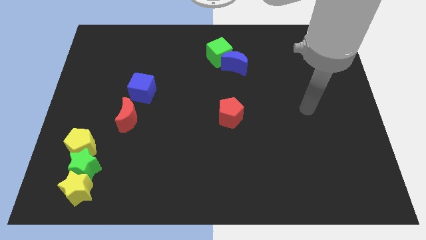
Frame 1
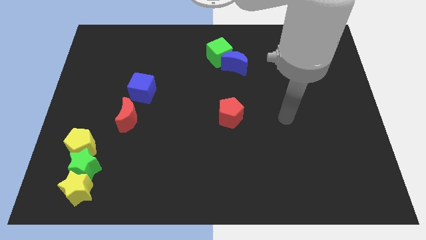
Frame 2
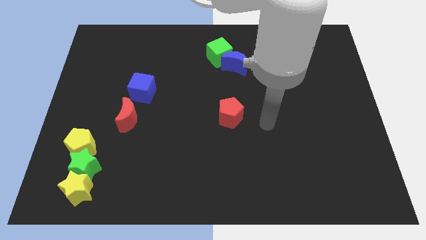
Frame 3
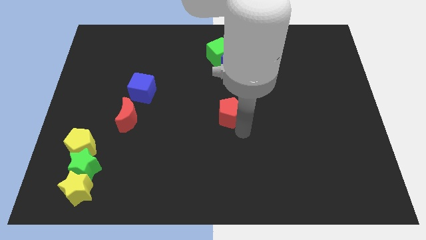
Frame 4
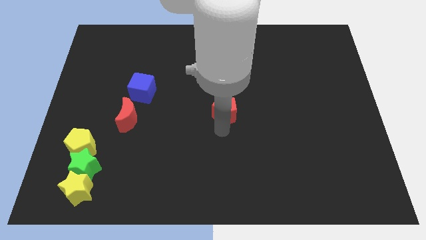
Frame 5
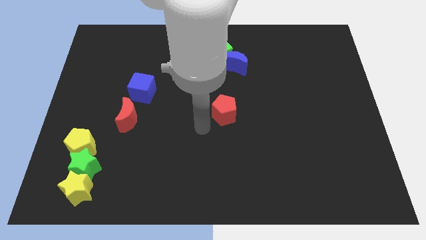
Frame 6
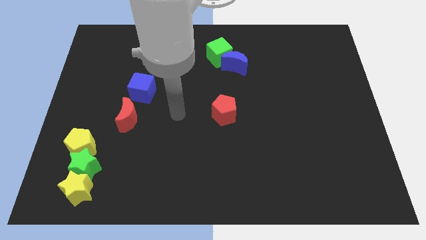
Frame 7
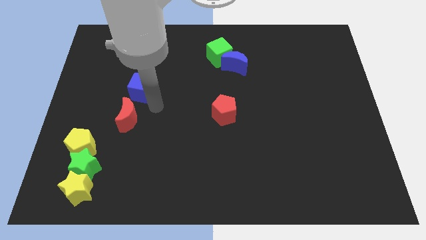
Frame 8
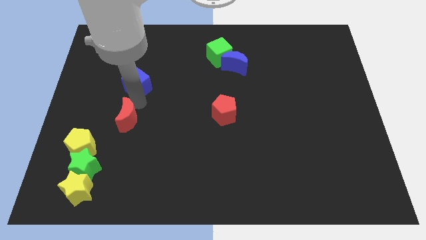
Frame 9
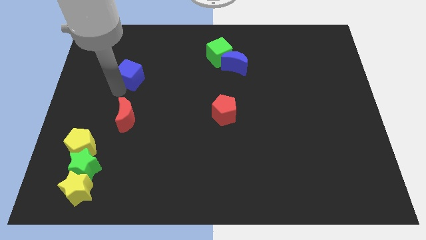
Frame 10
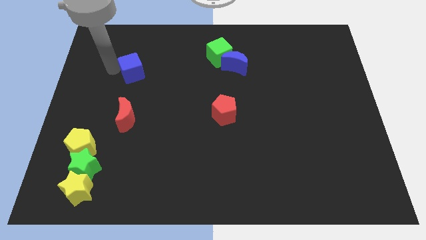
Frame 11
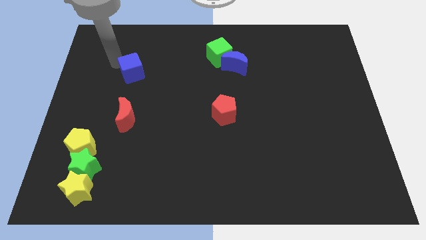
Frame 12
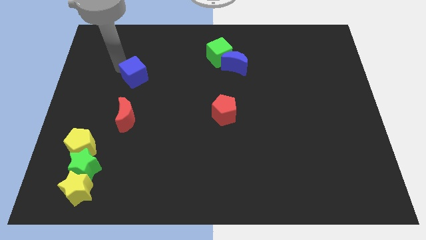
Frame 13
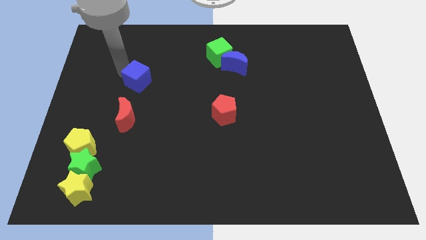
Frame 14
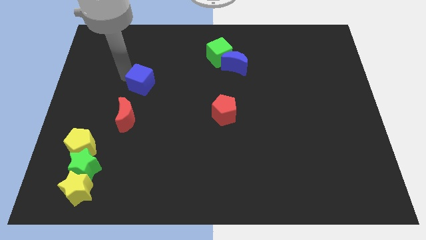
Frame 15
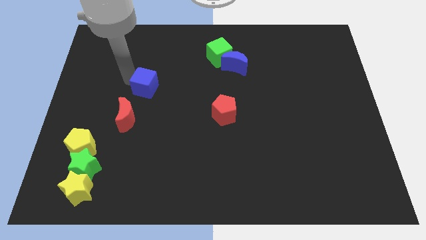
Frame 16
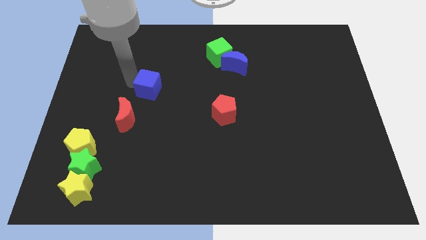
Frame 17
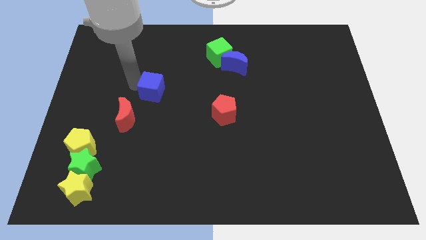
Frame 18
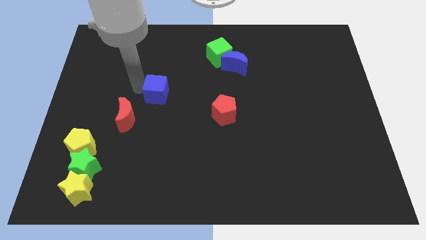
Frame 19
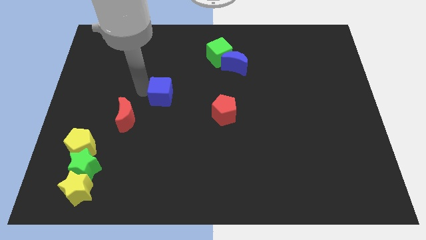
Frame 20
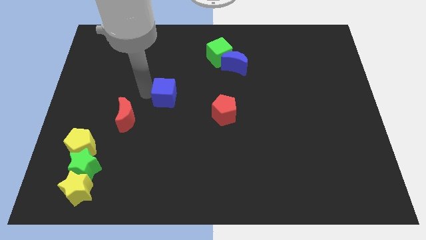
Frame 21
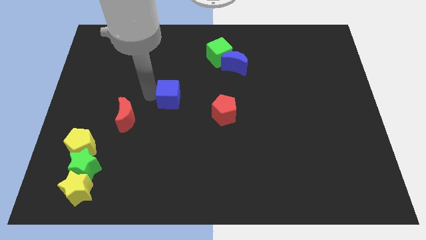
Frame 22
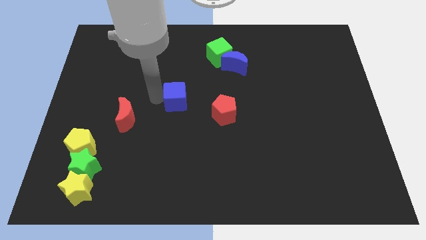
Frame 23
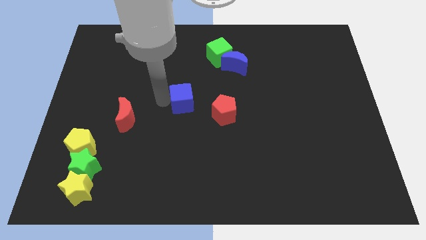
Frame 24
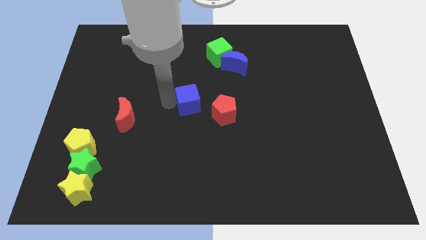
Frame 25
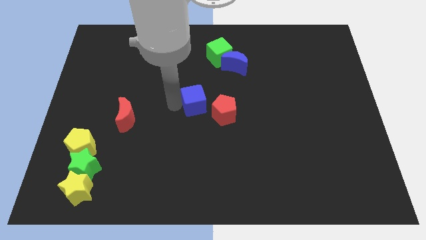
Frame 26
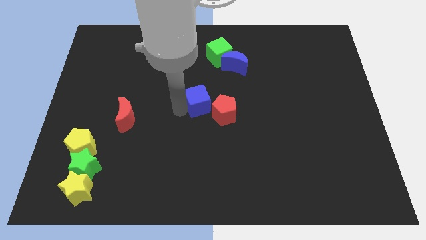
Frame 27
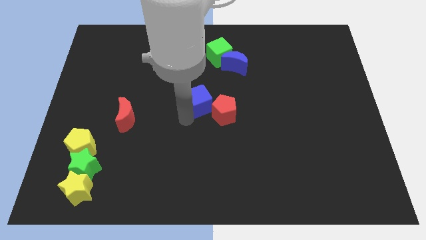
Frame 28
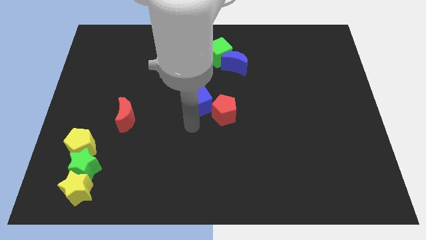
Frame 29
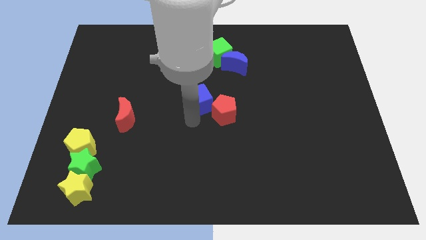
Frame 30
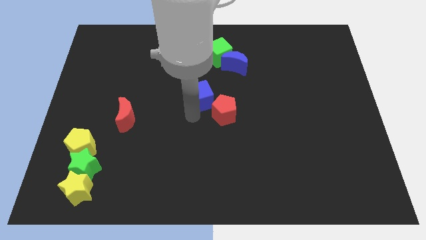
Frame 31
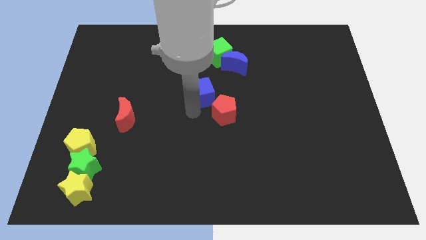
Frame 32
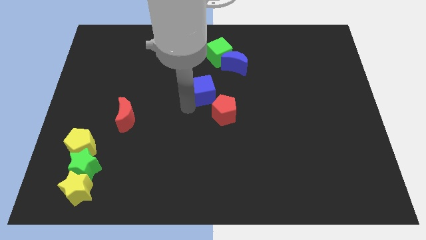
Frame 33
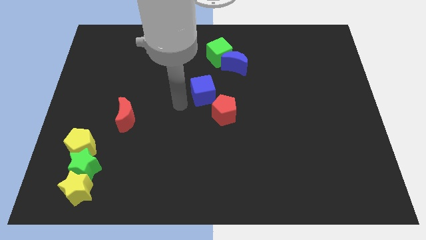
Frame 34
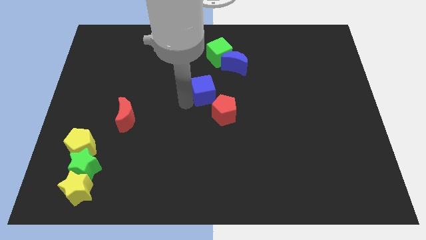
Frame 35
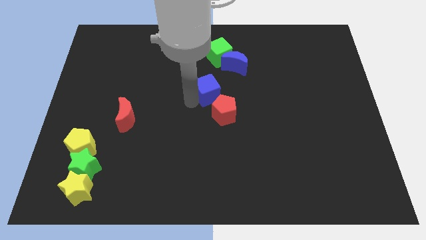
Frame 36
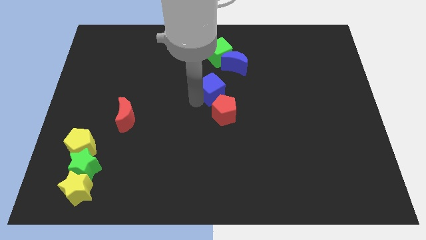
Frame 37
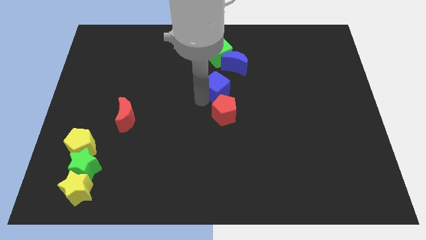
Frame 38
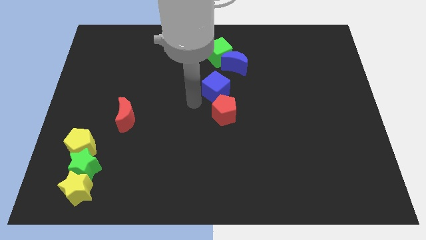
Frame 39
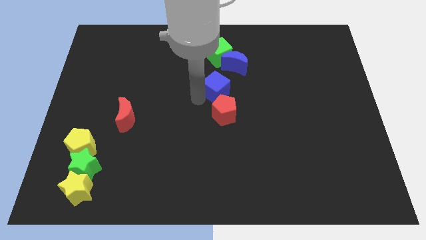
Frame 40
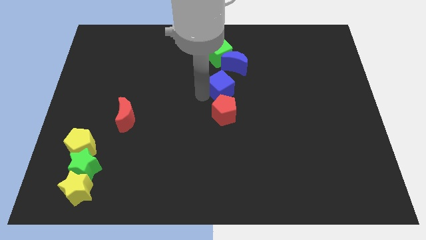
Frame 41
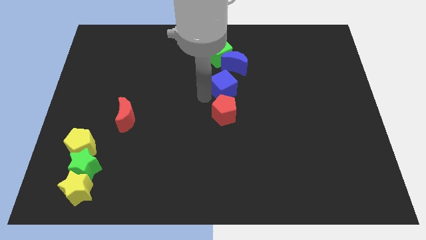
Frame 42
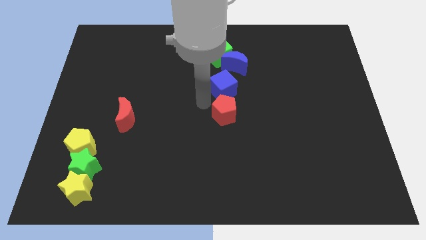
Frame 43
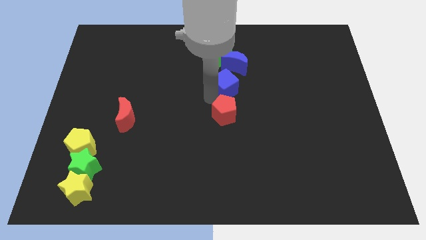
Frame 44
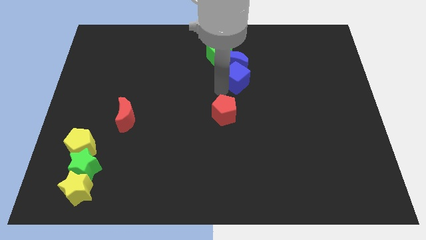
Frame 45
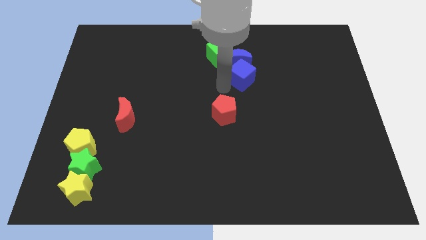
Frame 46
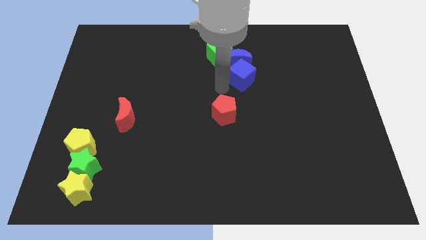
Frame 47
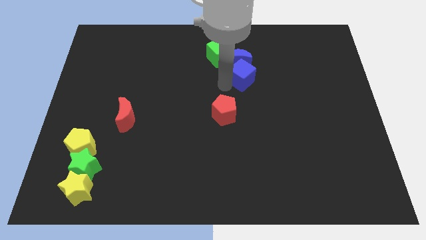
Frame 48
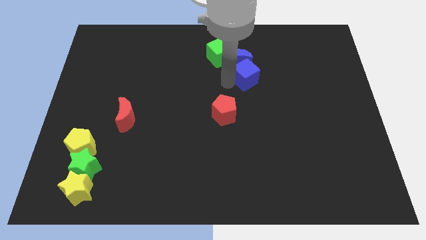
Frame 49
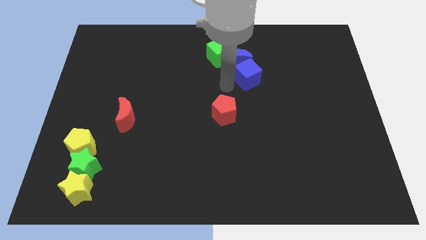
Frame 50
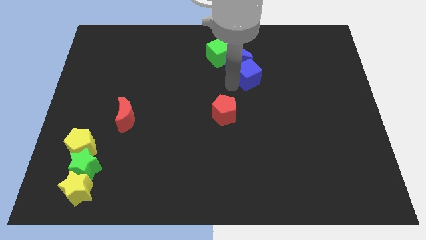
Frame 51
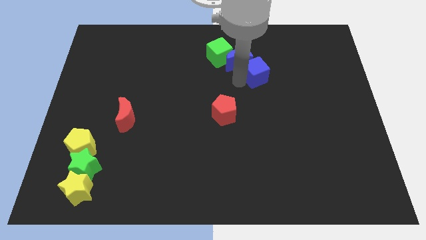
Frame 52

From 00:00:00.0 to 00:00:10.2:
slide the blue cube to the right side of the blue moon

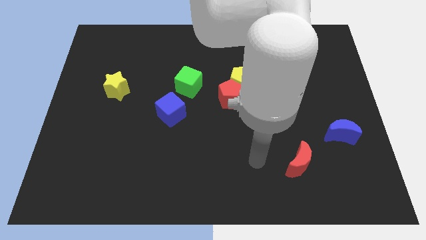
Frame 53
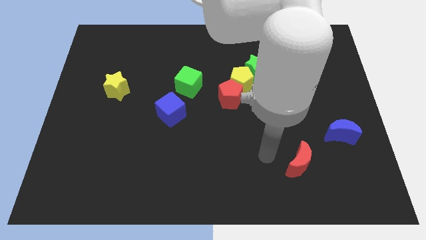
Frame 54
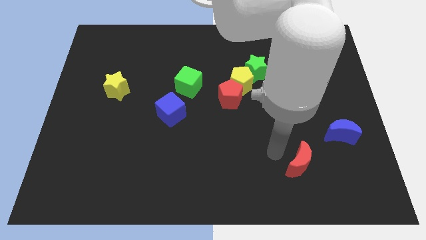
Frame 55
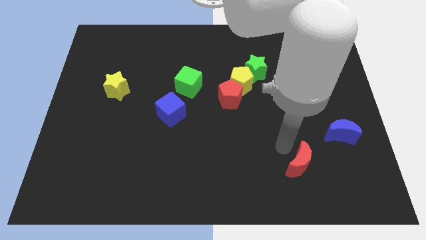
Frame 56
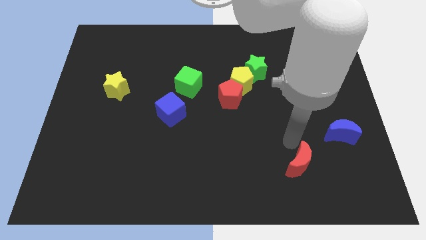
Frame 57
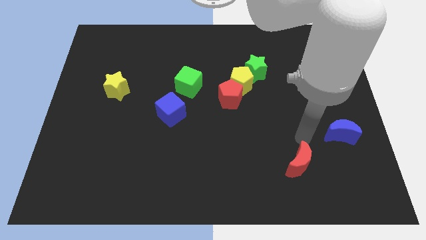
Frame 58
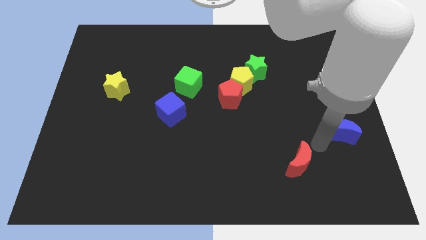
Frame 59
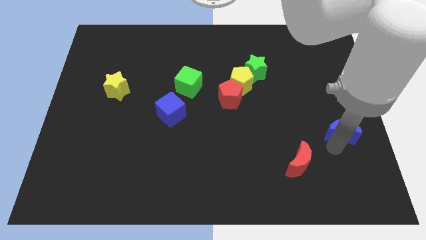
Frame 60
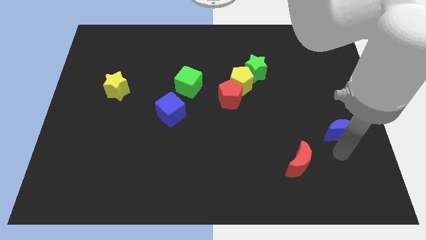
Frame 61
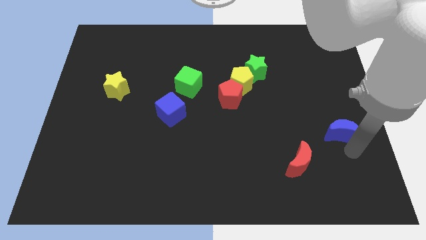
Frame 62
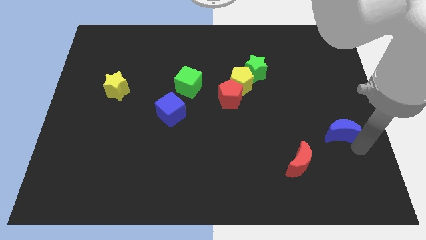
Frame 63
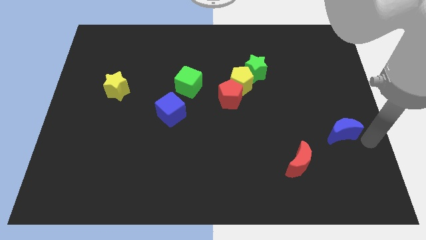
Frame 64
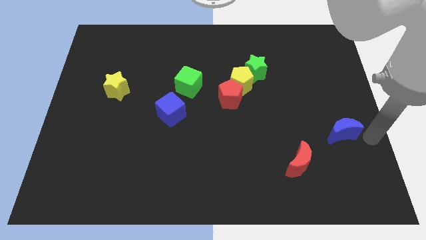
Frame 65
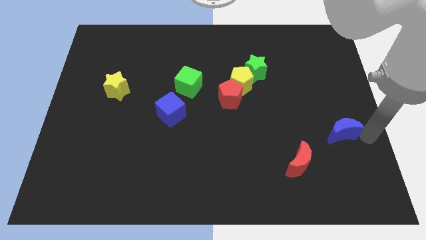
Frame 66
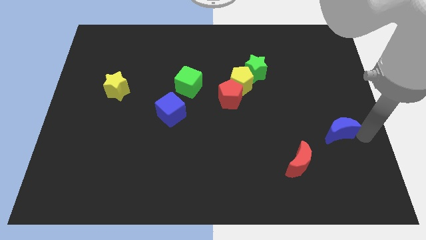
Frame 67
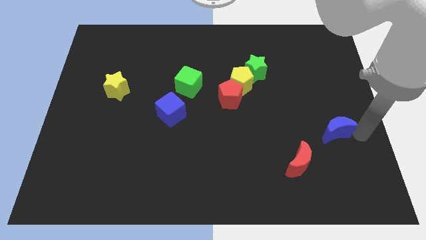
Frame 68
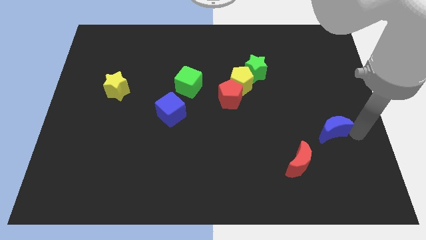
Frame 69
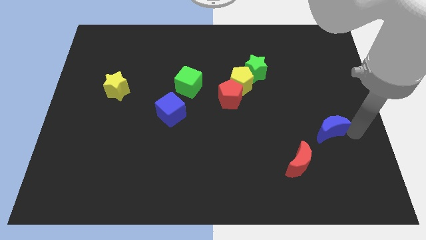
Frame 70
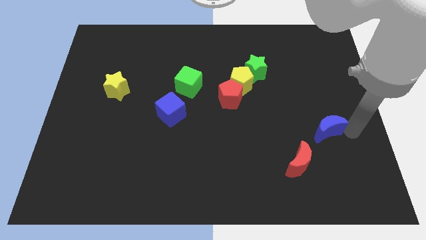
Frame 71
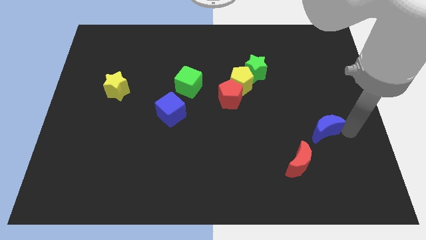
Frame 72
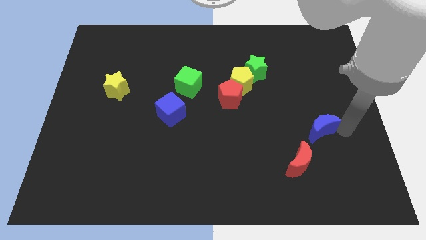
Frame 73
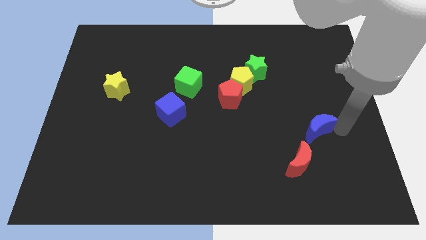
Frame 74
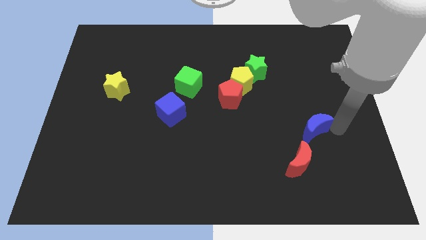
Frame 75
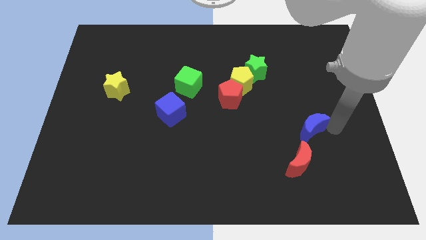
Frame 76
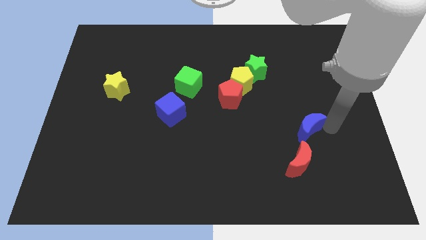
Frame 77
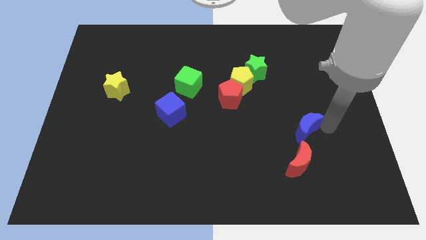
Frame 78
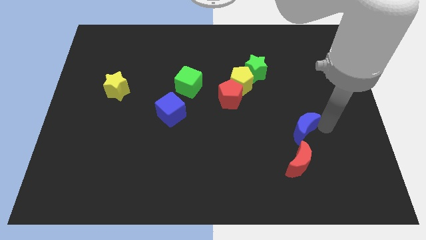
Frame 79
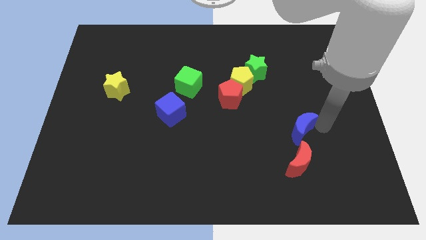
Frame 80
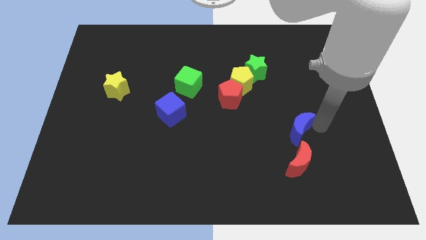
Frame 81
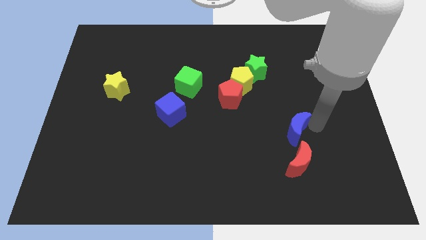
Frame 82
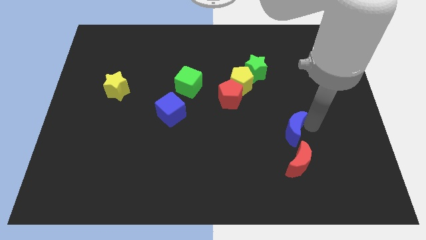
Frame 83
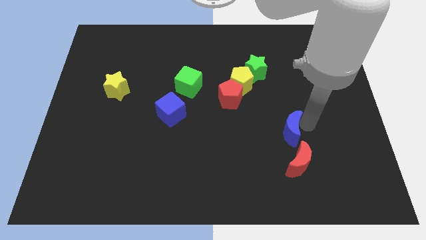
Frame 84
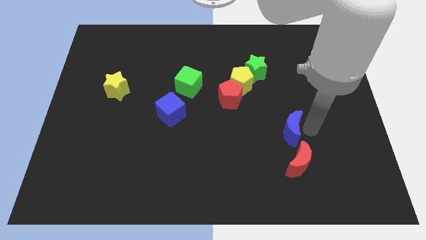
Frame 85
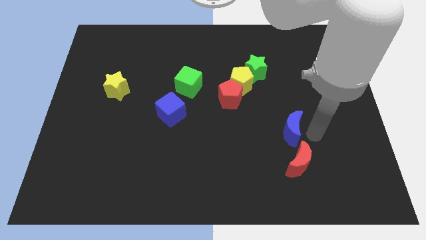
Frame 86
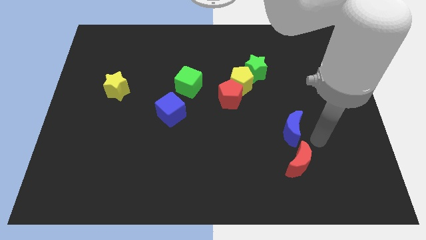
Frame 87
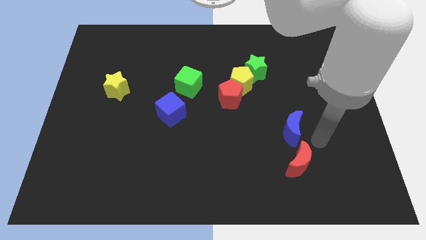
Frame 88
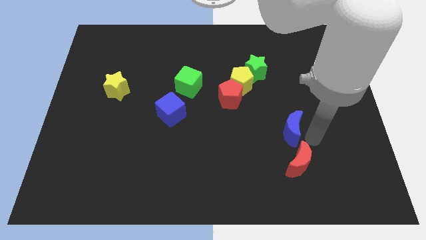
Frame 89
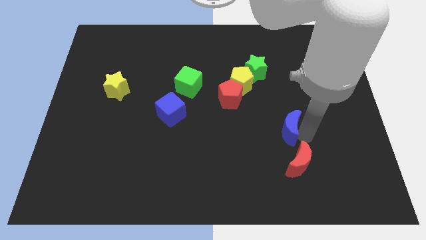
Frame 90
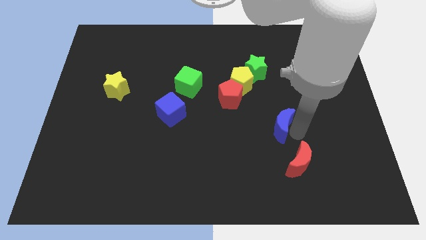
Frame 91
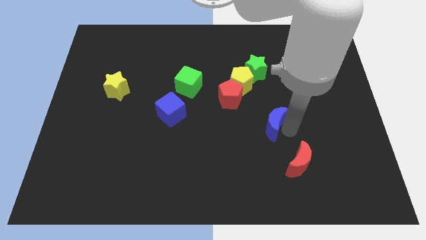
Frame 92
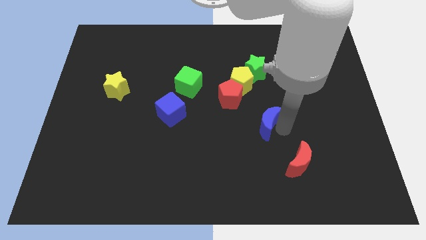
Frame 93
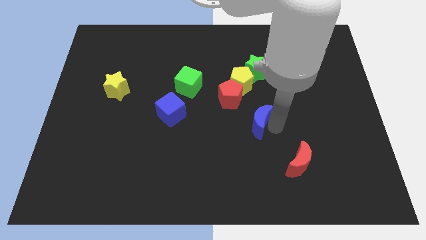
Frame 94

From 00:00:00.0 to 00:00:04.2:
slide the blue moon below the yellow pentagon
